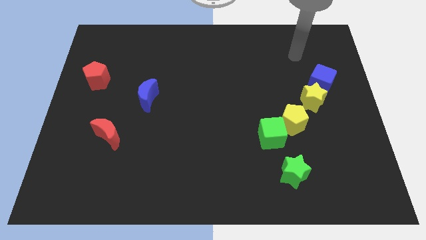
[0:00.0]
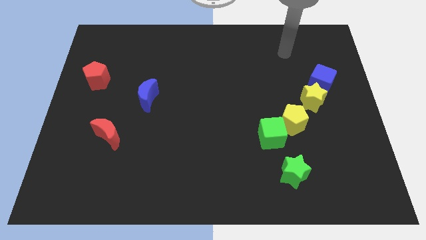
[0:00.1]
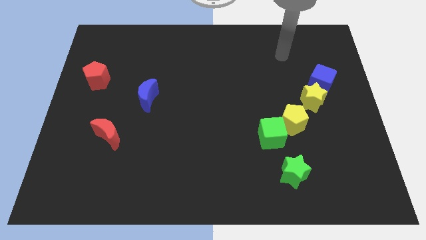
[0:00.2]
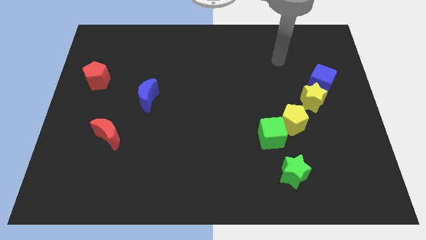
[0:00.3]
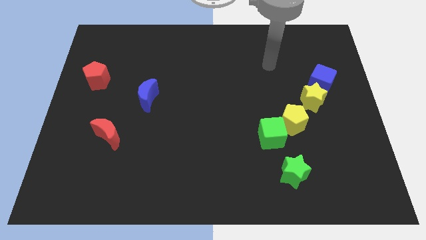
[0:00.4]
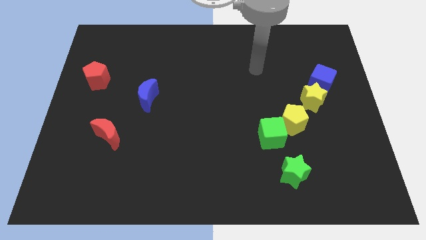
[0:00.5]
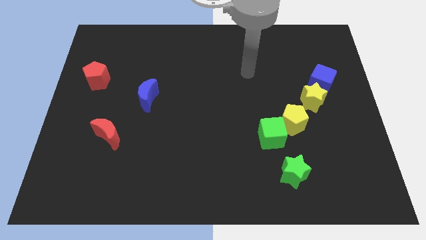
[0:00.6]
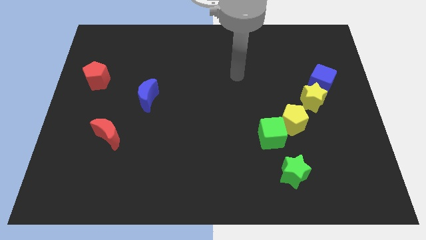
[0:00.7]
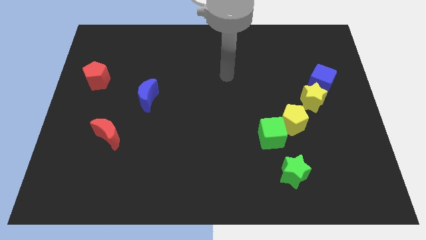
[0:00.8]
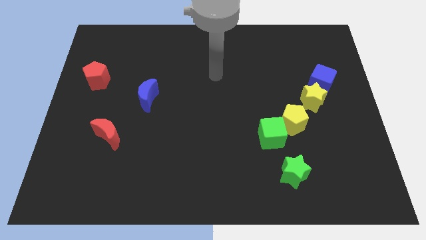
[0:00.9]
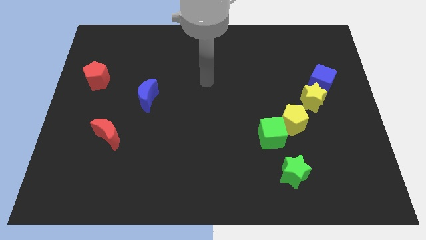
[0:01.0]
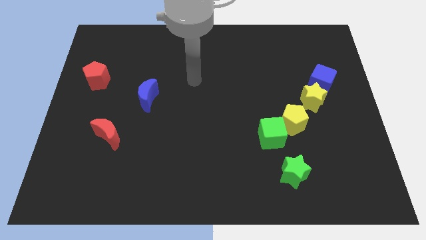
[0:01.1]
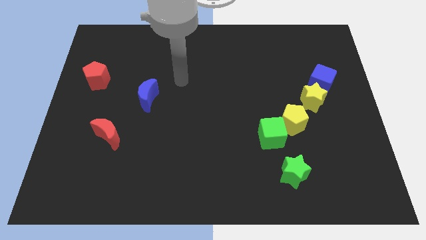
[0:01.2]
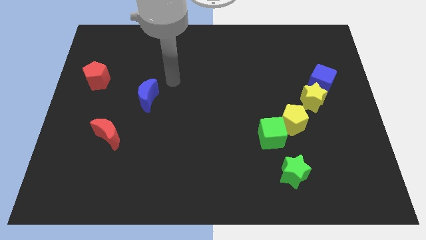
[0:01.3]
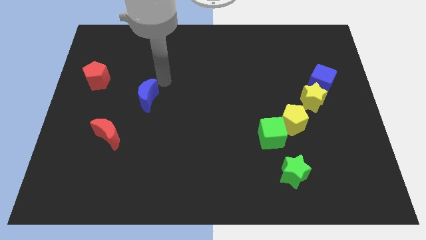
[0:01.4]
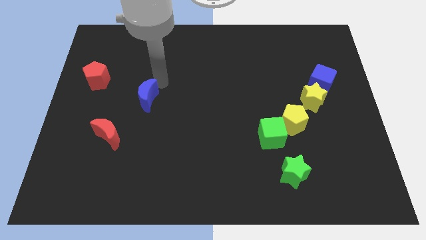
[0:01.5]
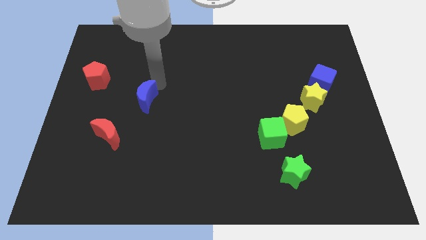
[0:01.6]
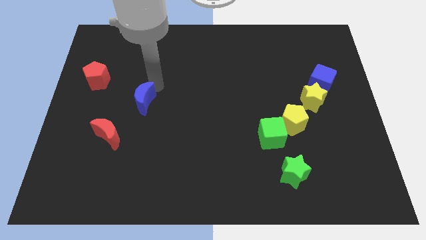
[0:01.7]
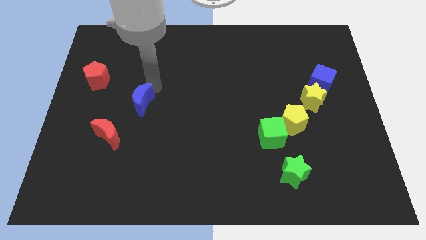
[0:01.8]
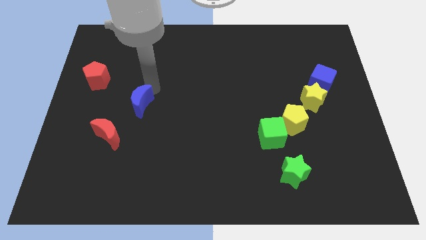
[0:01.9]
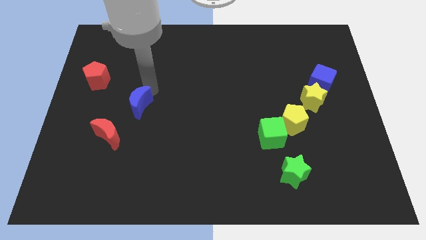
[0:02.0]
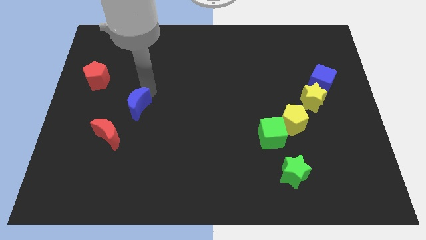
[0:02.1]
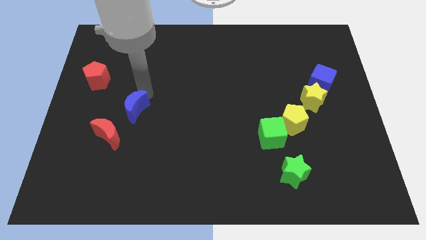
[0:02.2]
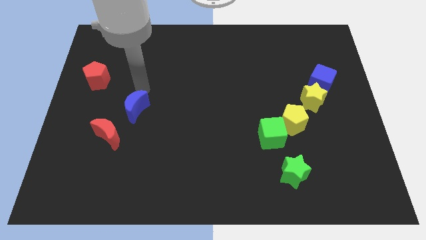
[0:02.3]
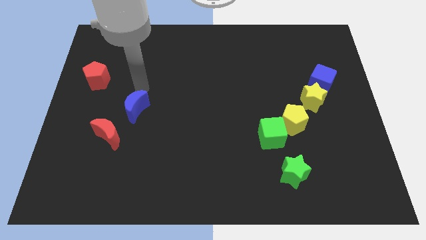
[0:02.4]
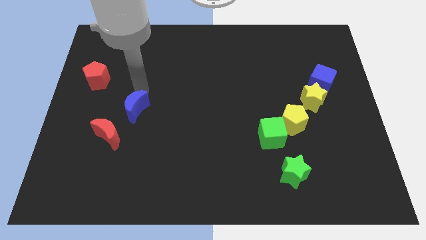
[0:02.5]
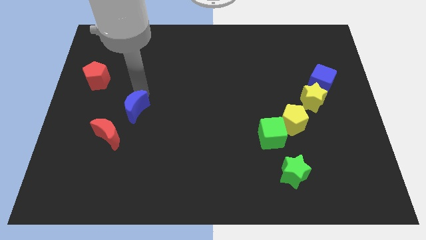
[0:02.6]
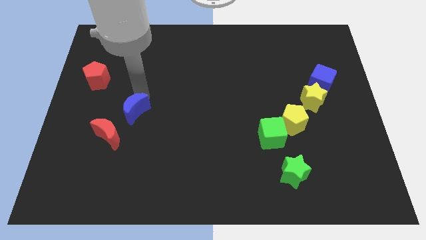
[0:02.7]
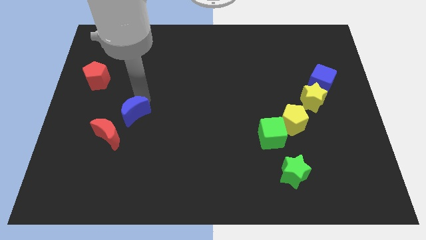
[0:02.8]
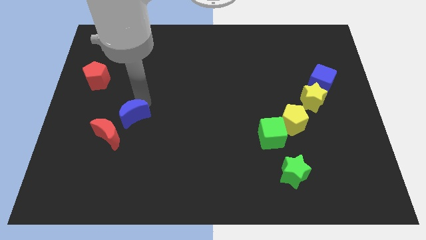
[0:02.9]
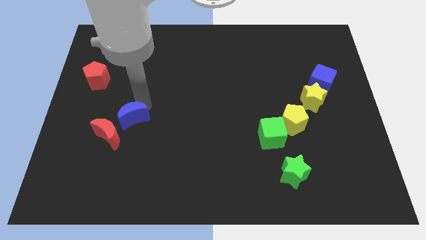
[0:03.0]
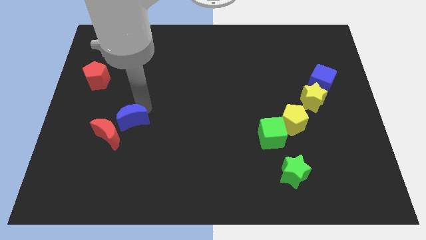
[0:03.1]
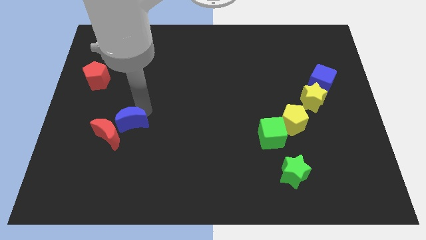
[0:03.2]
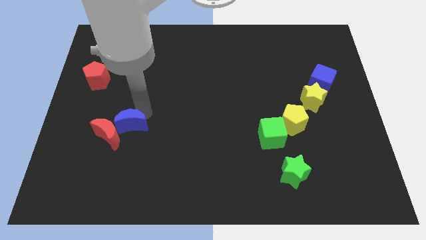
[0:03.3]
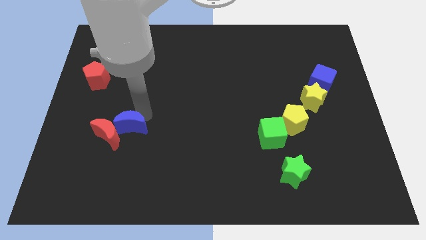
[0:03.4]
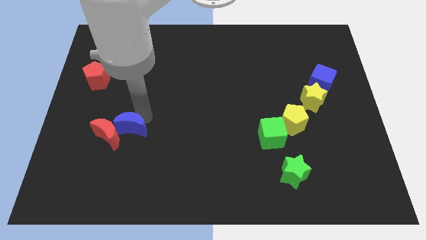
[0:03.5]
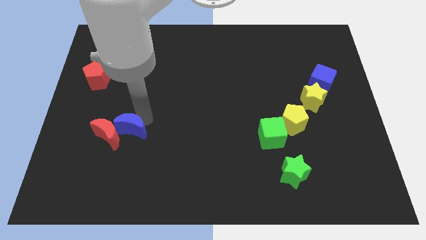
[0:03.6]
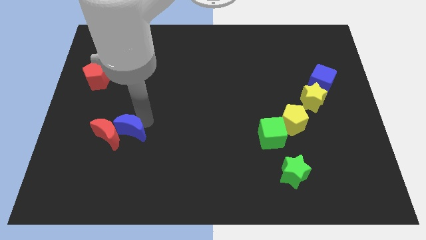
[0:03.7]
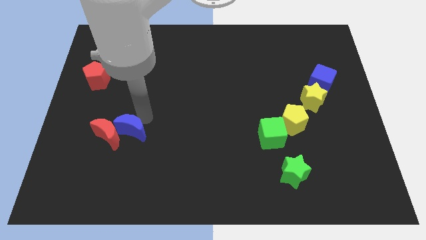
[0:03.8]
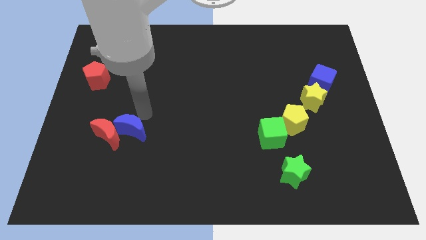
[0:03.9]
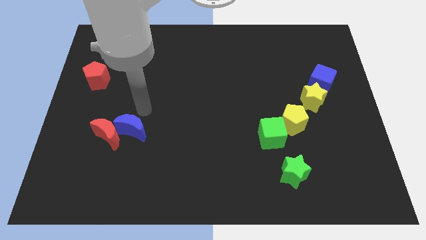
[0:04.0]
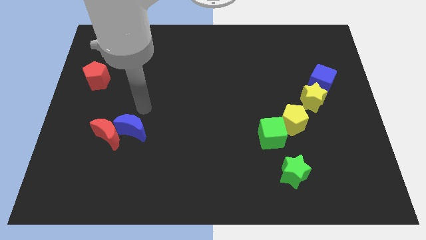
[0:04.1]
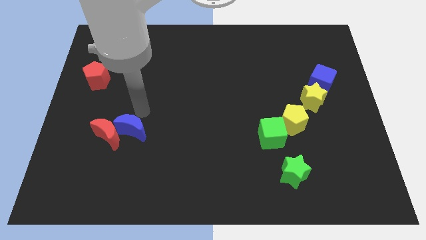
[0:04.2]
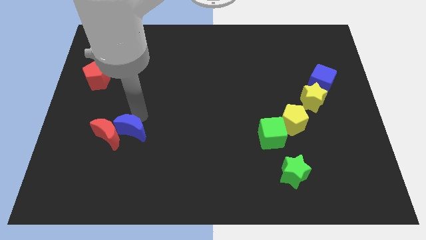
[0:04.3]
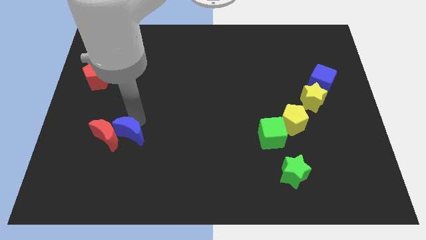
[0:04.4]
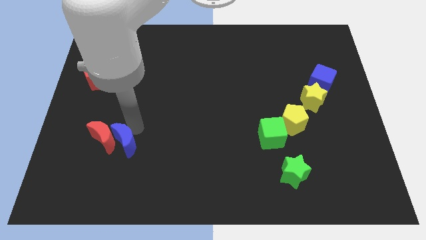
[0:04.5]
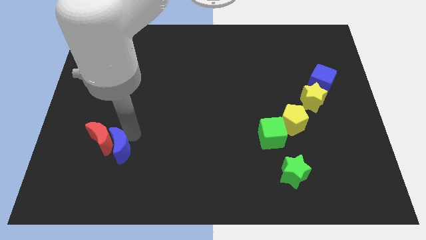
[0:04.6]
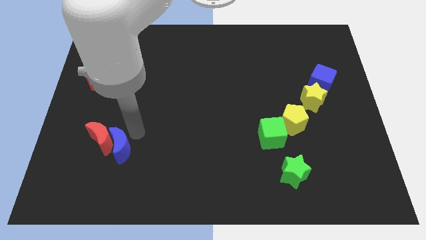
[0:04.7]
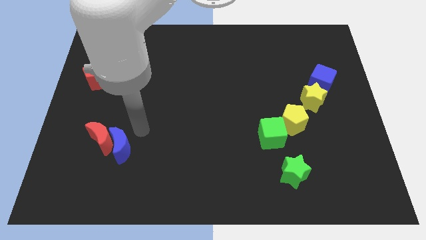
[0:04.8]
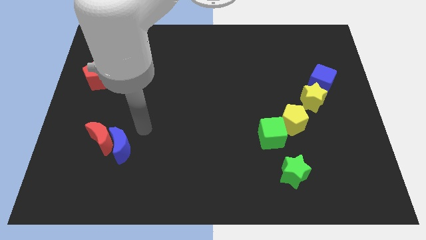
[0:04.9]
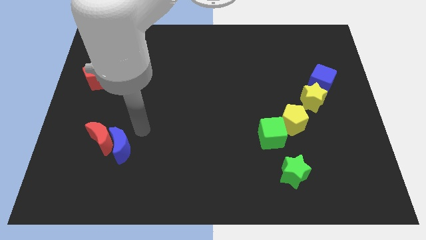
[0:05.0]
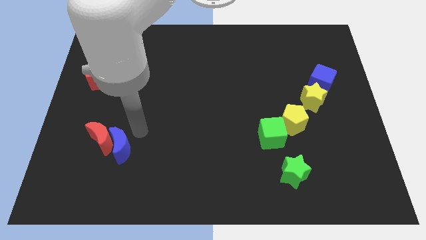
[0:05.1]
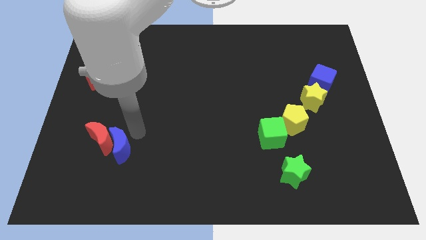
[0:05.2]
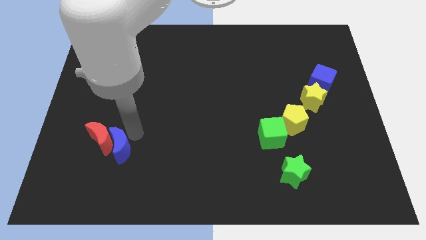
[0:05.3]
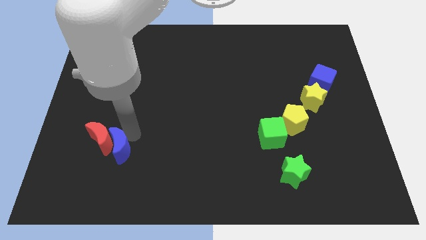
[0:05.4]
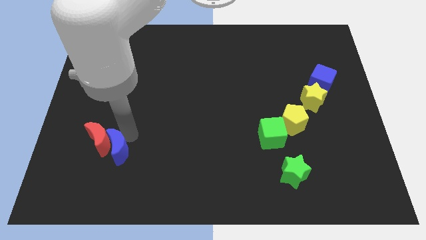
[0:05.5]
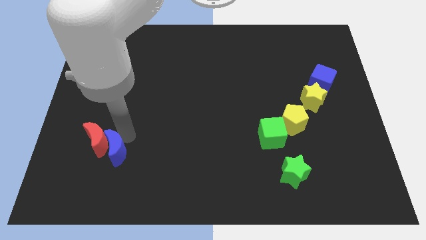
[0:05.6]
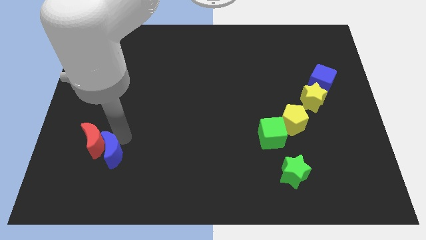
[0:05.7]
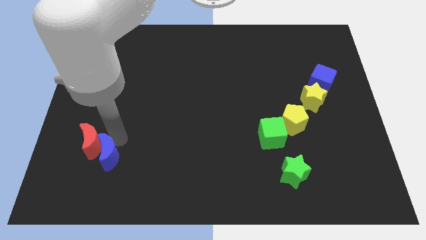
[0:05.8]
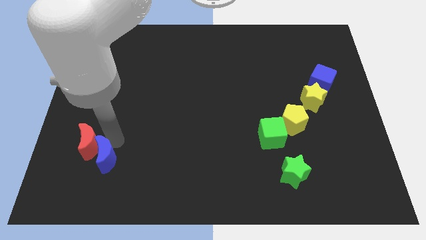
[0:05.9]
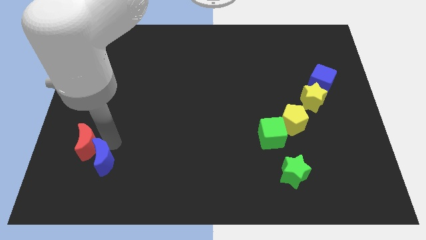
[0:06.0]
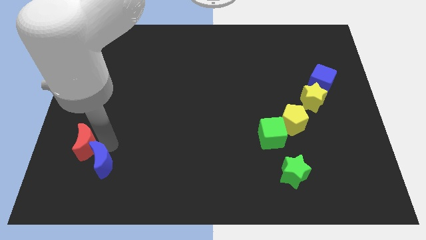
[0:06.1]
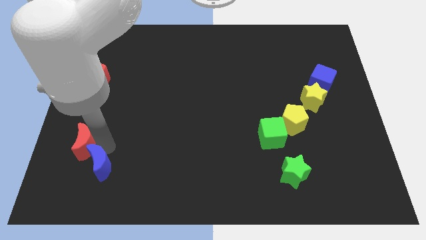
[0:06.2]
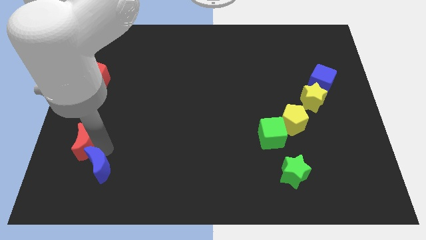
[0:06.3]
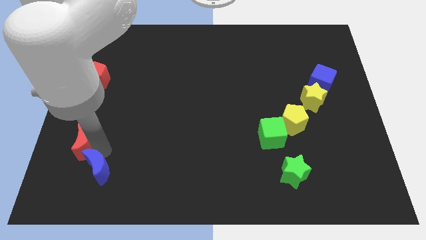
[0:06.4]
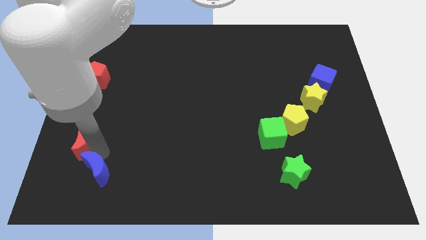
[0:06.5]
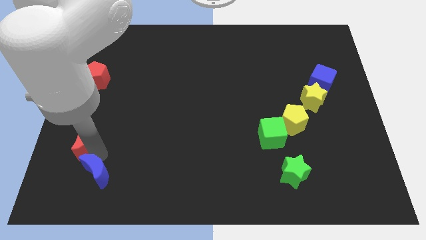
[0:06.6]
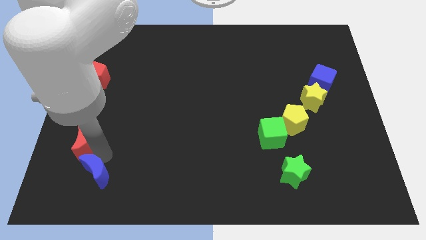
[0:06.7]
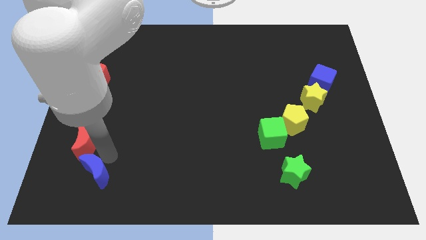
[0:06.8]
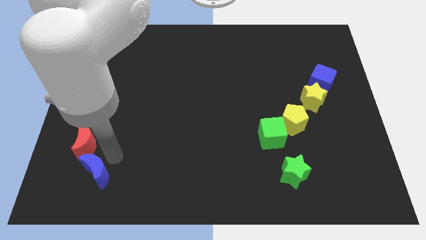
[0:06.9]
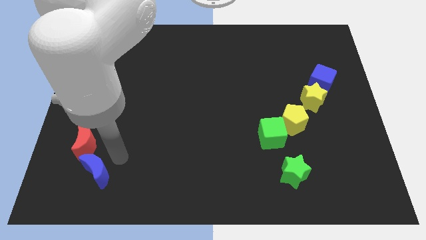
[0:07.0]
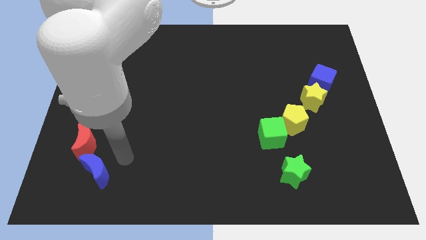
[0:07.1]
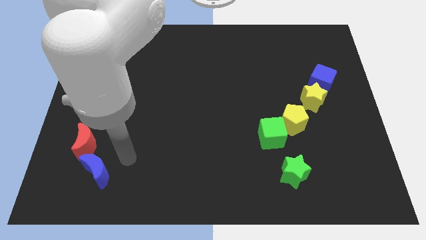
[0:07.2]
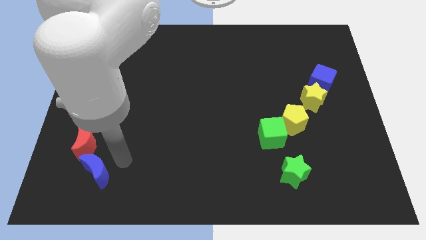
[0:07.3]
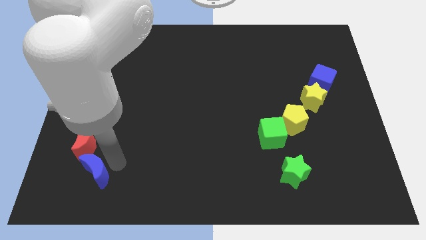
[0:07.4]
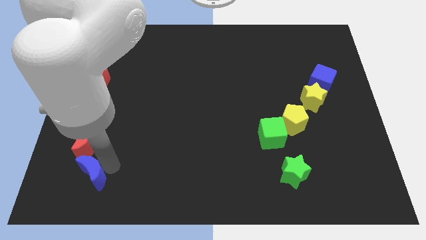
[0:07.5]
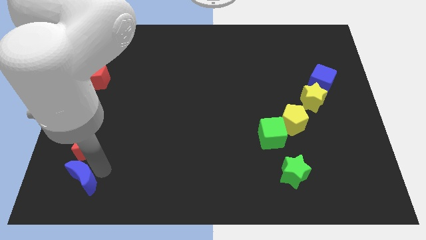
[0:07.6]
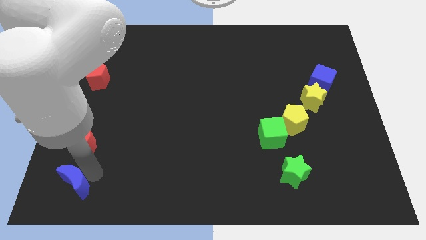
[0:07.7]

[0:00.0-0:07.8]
put the blue moon to the bottom left of the board
